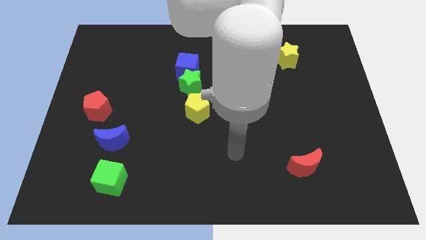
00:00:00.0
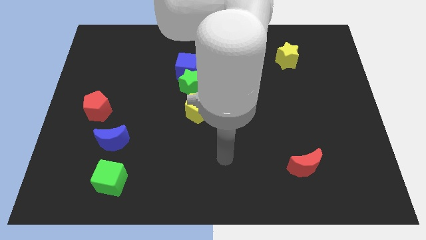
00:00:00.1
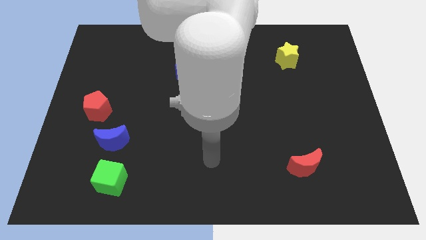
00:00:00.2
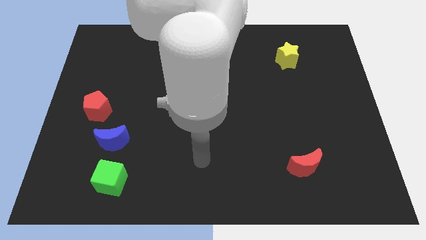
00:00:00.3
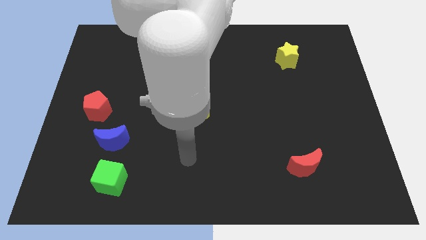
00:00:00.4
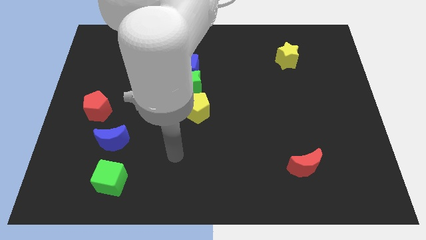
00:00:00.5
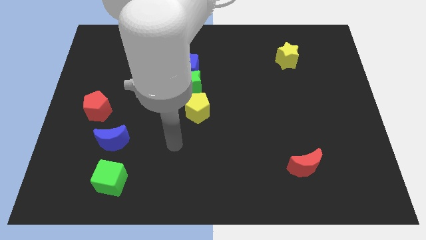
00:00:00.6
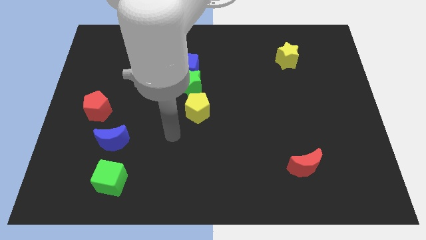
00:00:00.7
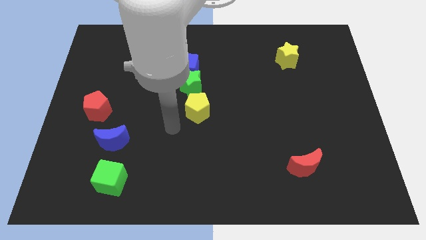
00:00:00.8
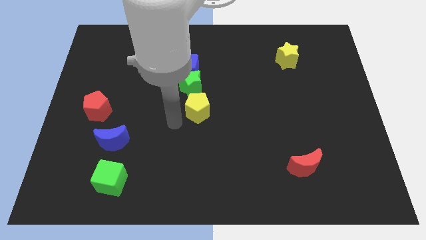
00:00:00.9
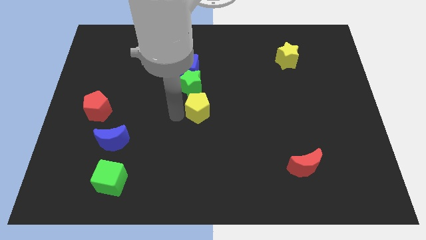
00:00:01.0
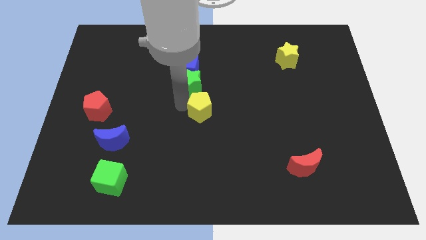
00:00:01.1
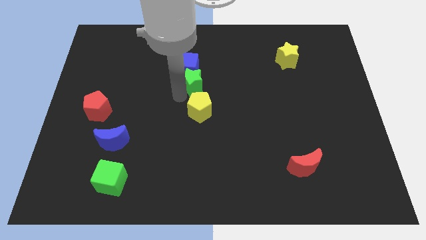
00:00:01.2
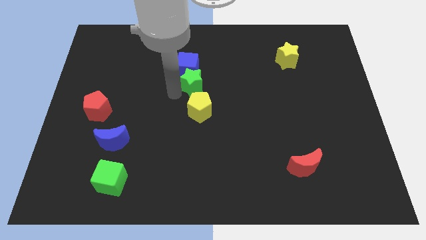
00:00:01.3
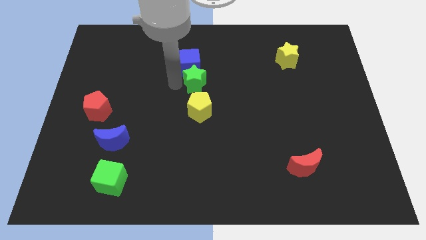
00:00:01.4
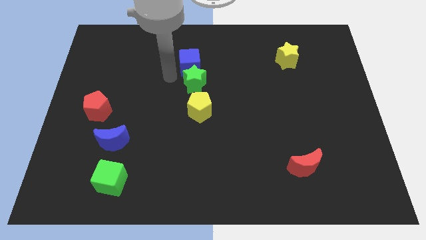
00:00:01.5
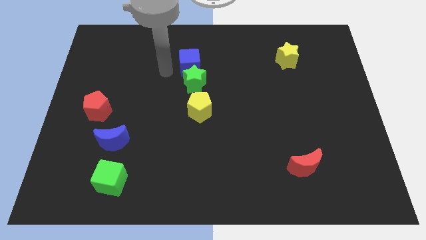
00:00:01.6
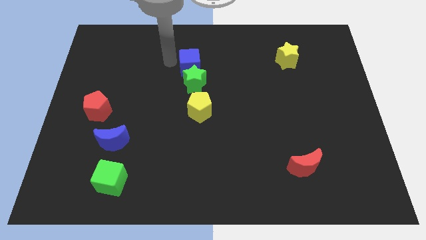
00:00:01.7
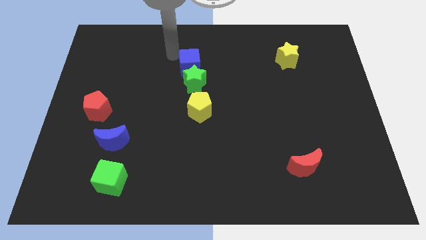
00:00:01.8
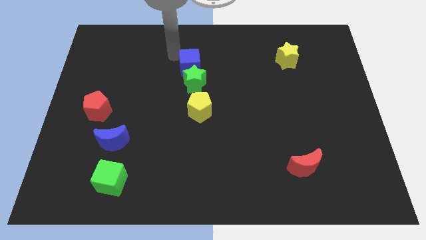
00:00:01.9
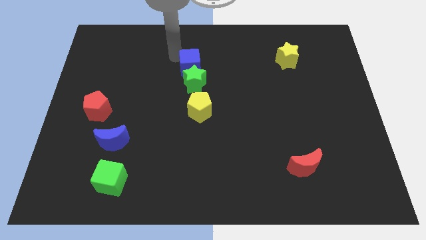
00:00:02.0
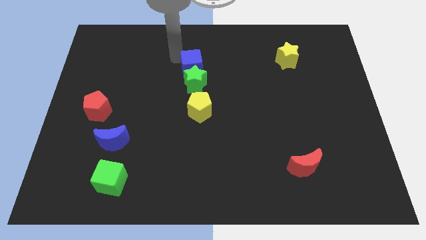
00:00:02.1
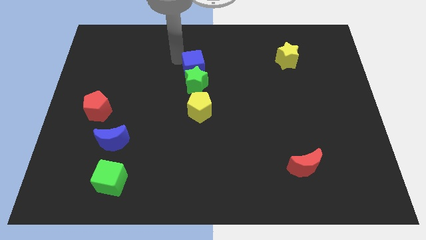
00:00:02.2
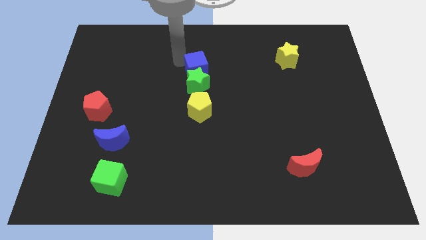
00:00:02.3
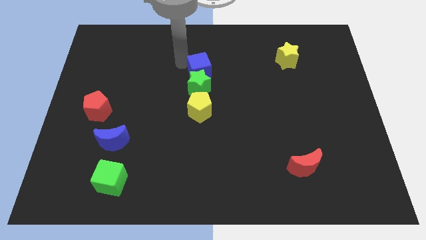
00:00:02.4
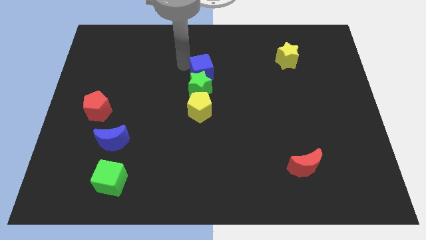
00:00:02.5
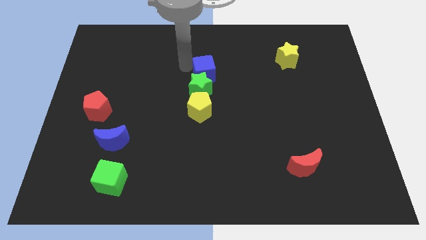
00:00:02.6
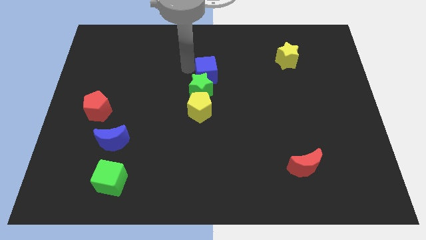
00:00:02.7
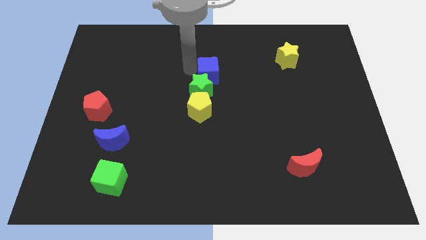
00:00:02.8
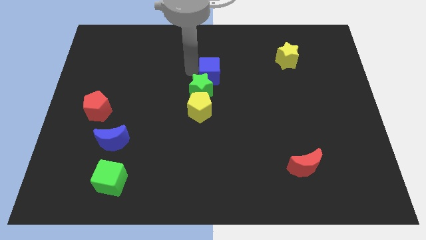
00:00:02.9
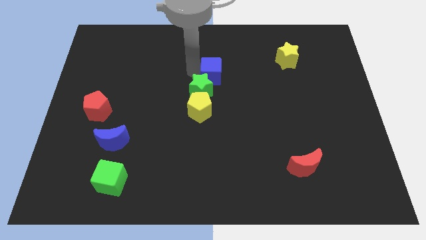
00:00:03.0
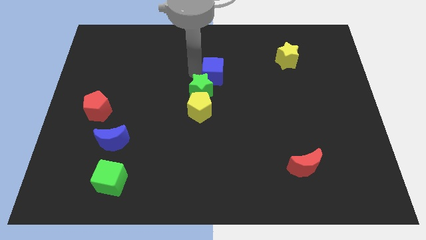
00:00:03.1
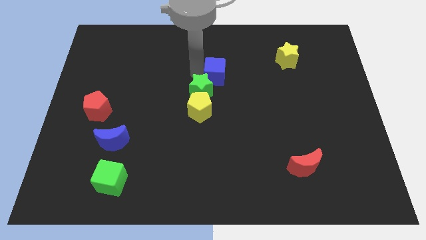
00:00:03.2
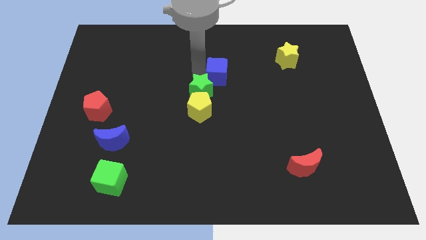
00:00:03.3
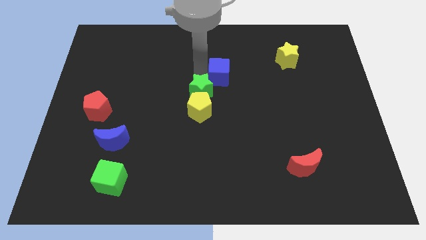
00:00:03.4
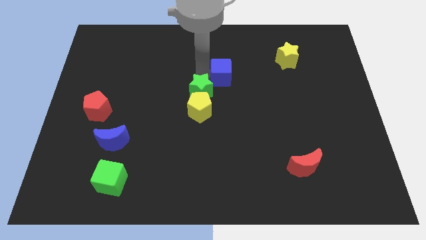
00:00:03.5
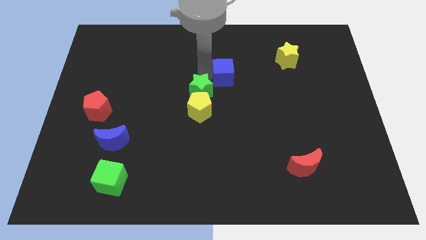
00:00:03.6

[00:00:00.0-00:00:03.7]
push the blue cube a bit diagonally down and to the right

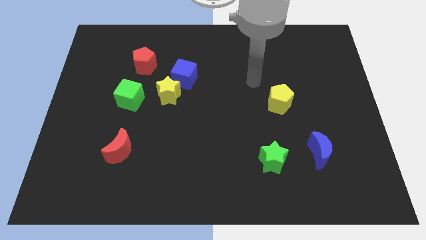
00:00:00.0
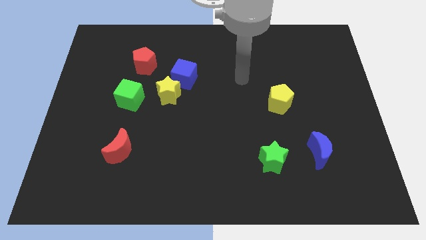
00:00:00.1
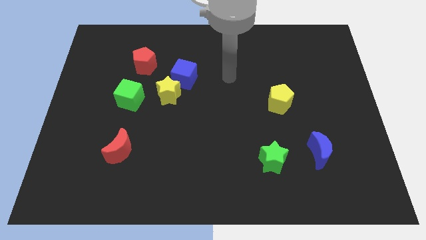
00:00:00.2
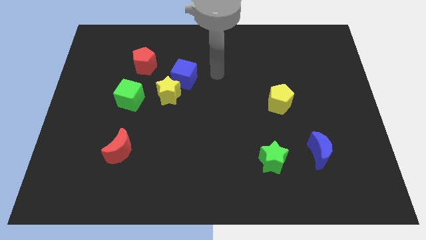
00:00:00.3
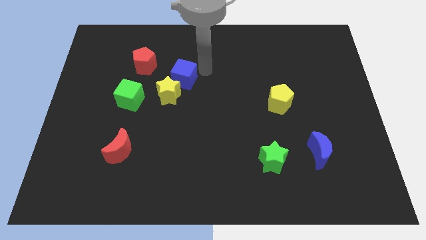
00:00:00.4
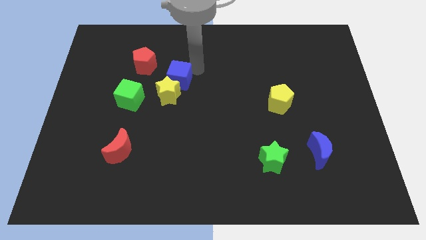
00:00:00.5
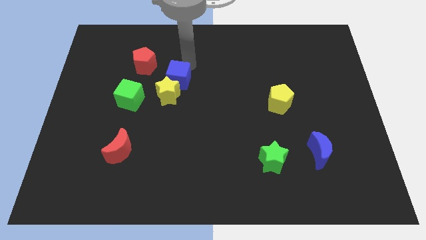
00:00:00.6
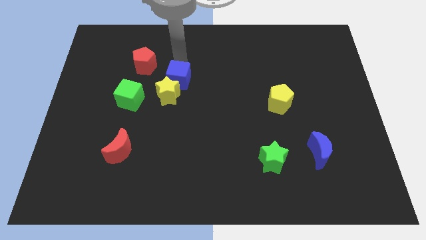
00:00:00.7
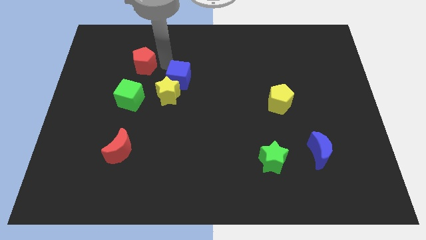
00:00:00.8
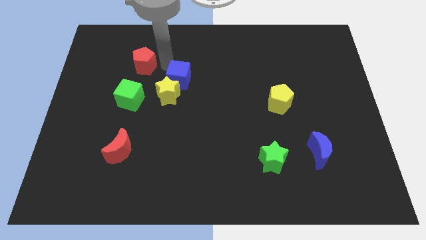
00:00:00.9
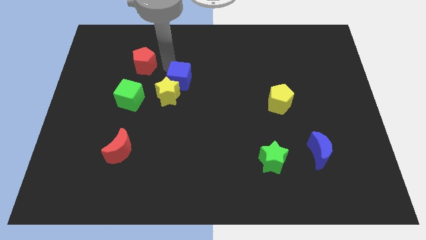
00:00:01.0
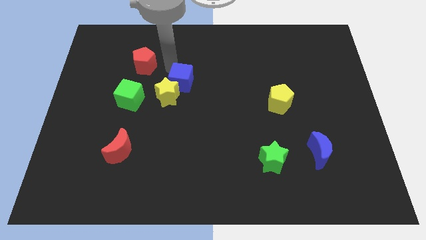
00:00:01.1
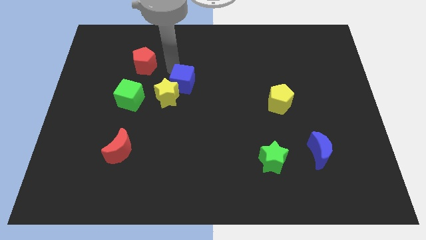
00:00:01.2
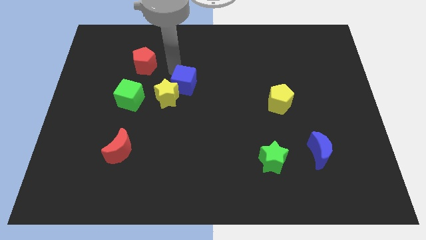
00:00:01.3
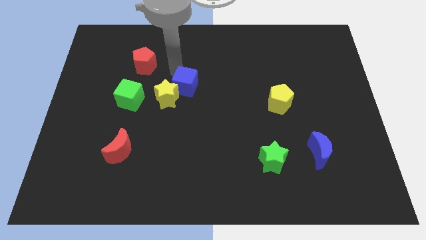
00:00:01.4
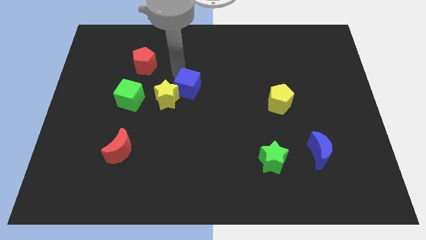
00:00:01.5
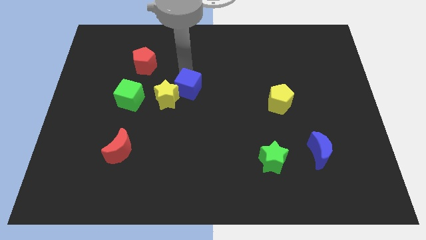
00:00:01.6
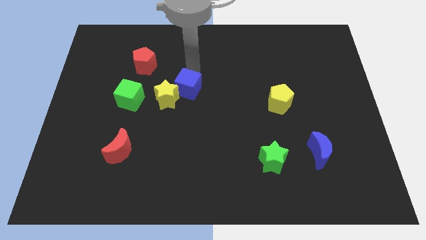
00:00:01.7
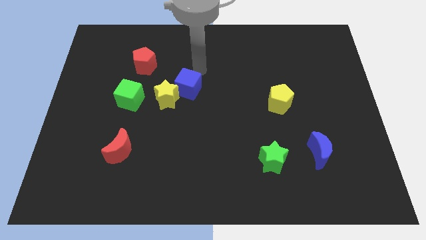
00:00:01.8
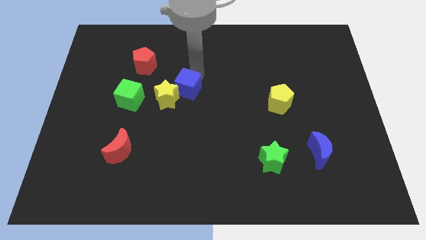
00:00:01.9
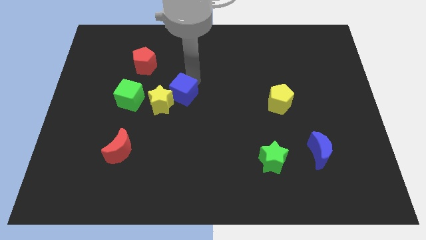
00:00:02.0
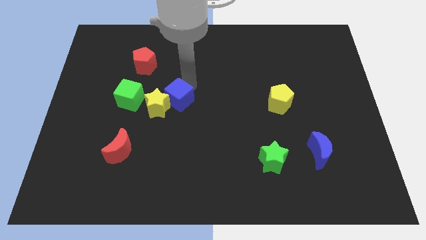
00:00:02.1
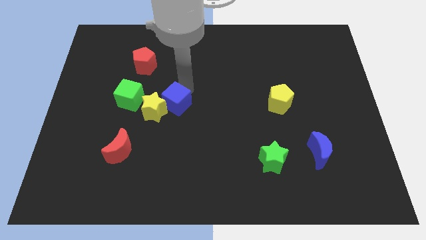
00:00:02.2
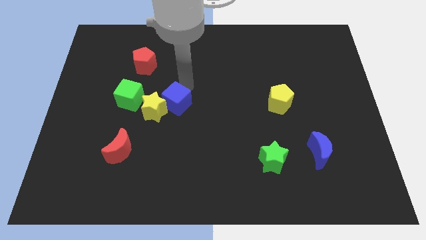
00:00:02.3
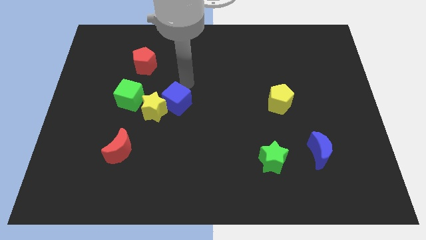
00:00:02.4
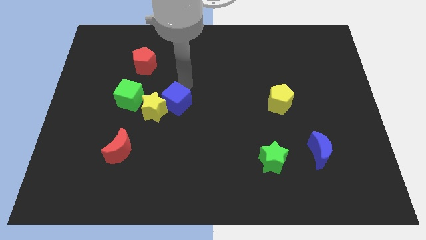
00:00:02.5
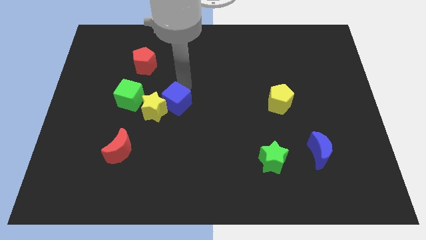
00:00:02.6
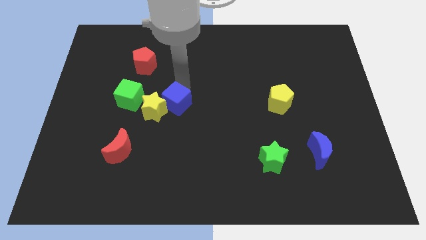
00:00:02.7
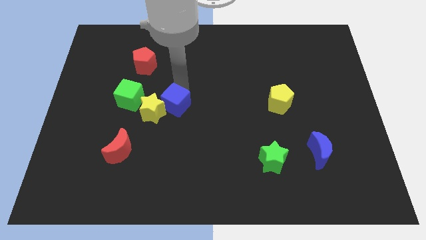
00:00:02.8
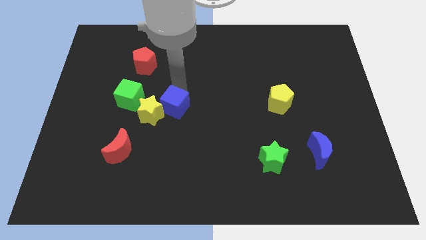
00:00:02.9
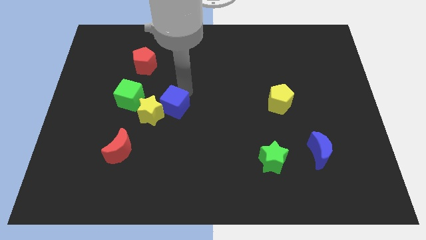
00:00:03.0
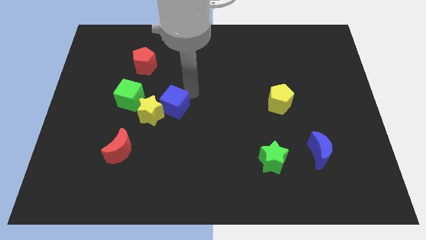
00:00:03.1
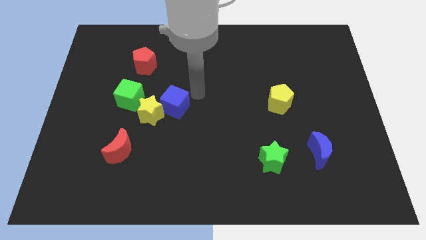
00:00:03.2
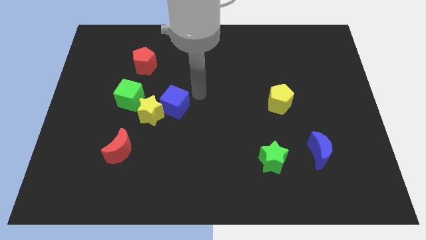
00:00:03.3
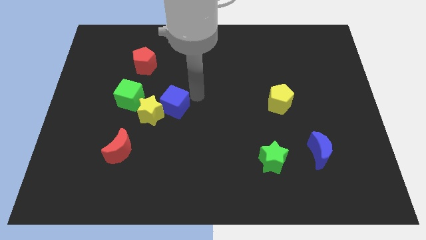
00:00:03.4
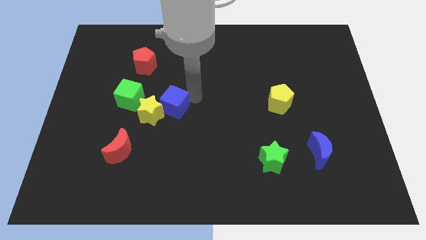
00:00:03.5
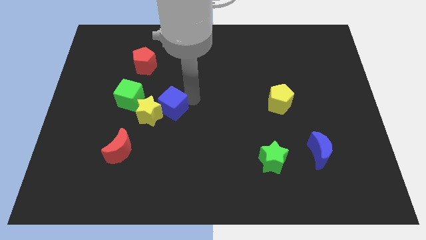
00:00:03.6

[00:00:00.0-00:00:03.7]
push the blue cube somewhat downwards and left diagonally

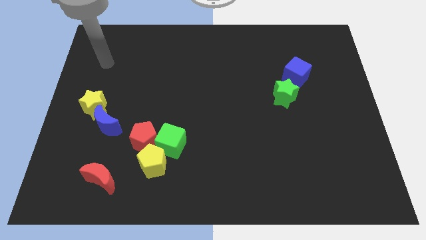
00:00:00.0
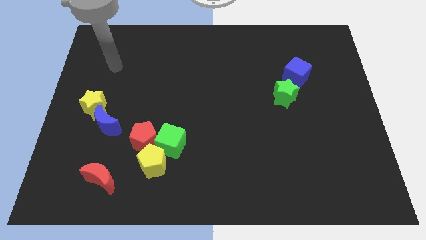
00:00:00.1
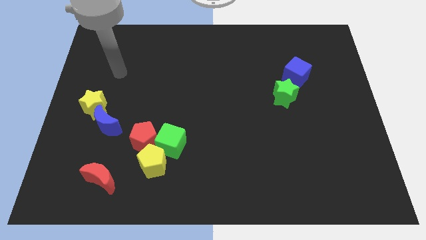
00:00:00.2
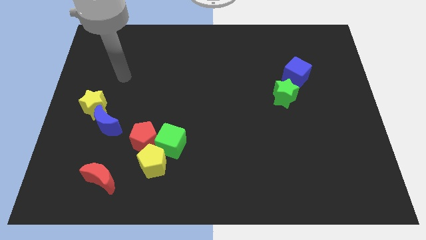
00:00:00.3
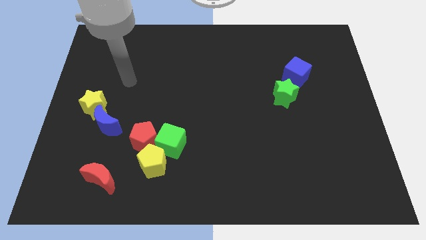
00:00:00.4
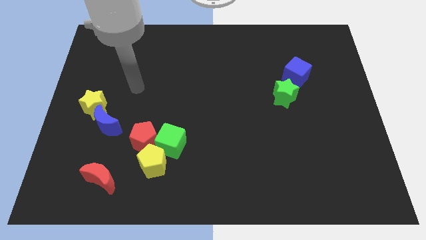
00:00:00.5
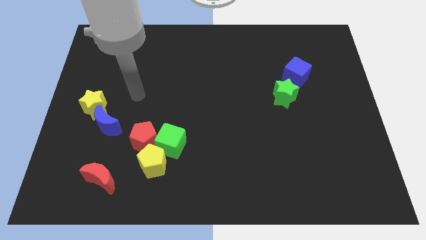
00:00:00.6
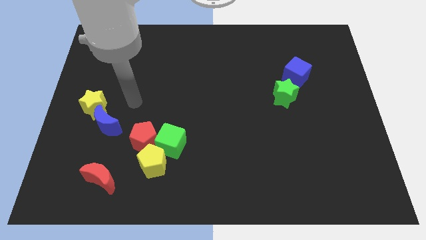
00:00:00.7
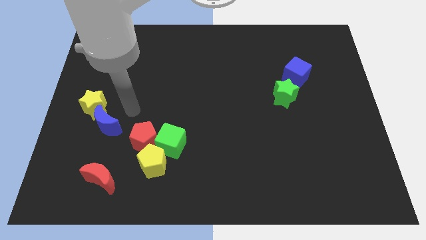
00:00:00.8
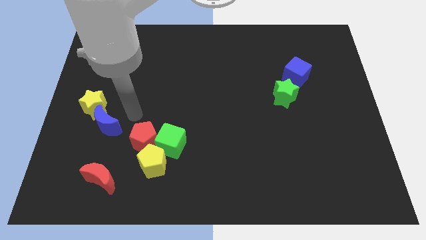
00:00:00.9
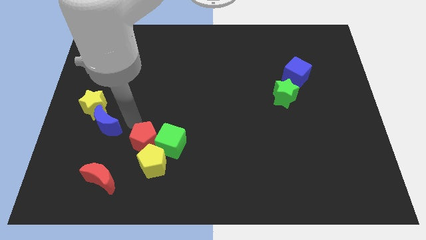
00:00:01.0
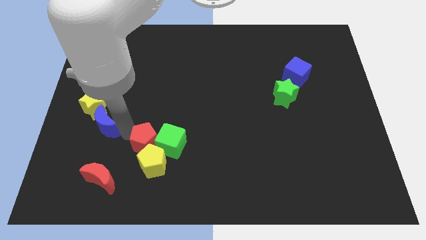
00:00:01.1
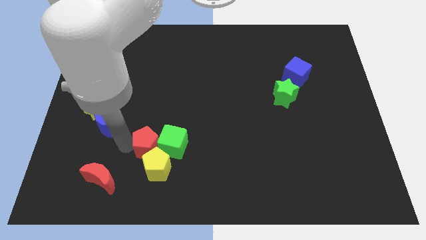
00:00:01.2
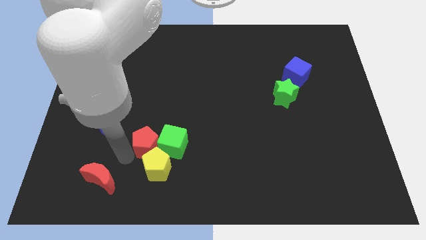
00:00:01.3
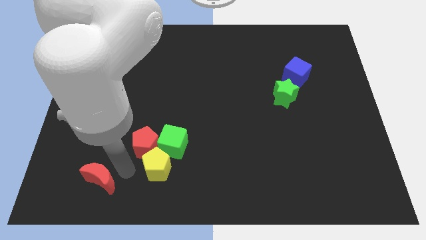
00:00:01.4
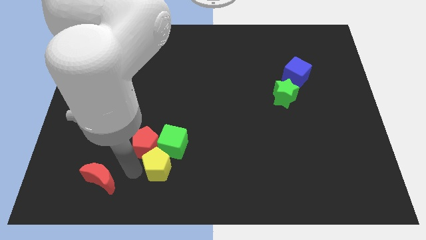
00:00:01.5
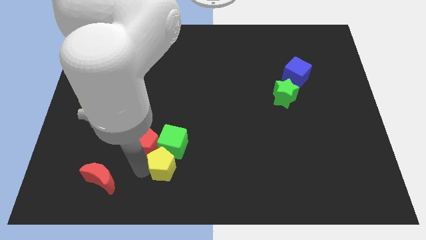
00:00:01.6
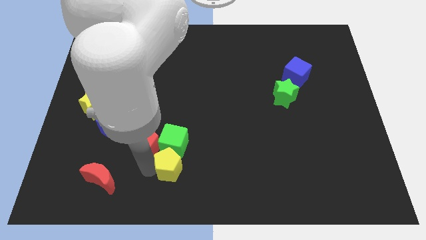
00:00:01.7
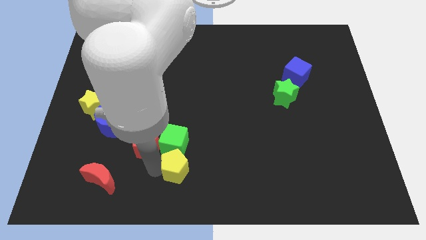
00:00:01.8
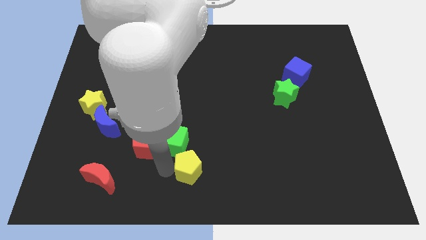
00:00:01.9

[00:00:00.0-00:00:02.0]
slide the yellow pentagon right a bit
